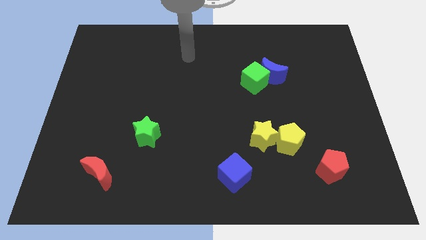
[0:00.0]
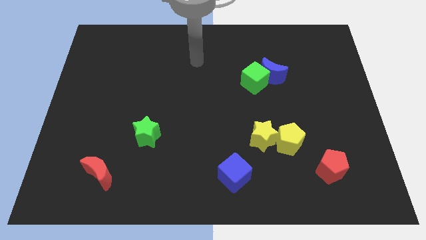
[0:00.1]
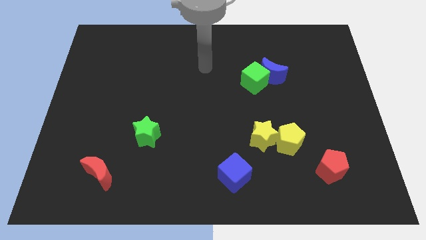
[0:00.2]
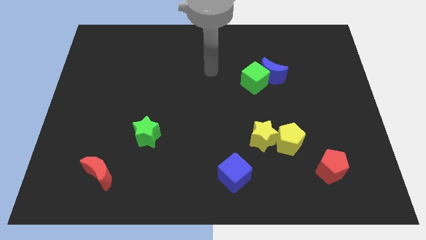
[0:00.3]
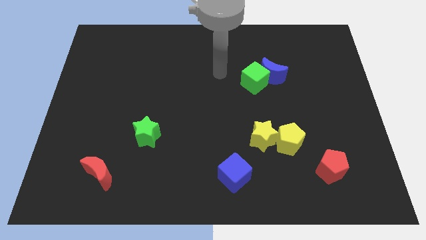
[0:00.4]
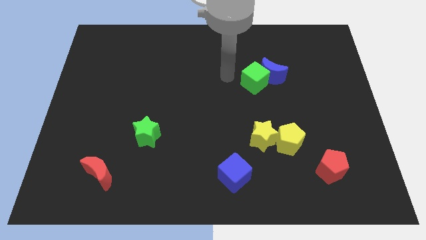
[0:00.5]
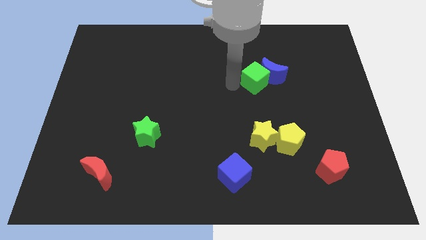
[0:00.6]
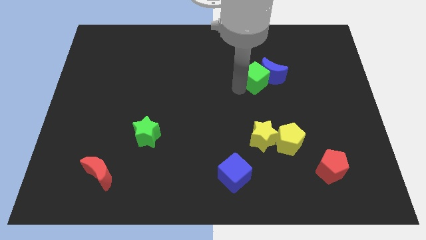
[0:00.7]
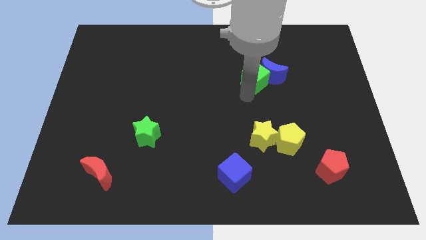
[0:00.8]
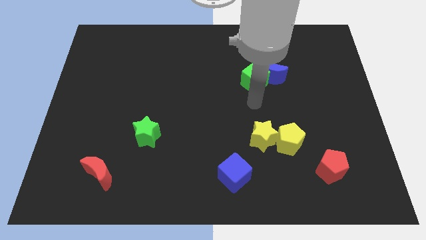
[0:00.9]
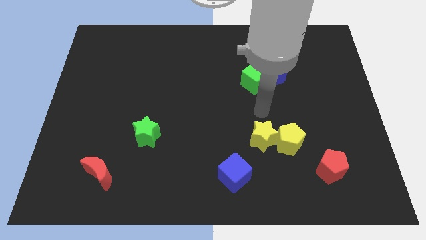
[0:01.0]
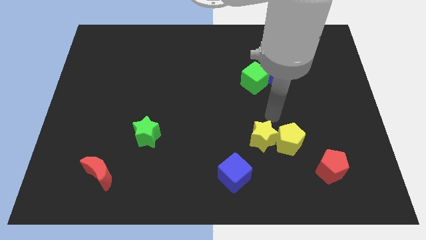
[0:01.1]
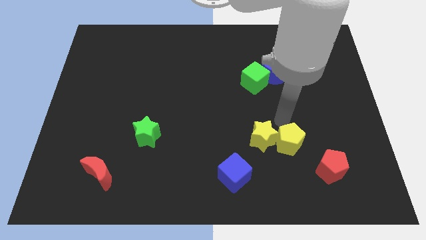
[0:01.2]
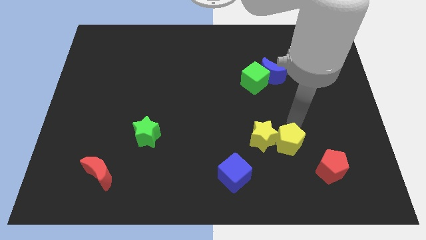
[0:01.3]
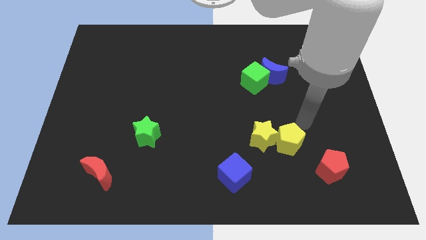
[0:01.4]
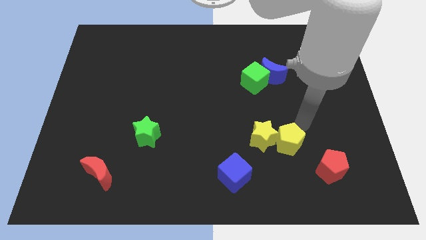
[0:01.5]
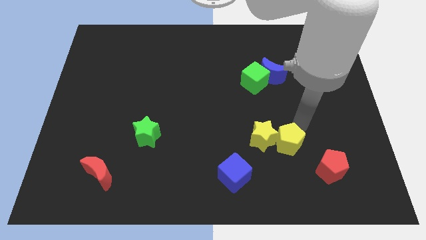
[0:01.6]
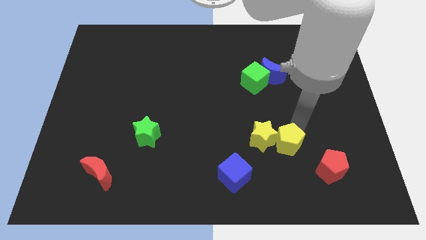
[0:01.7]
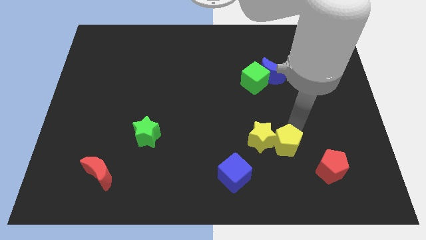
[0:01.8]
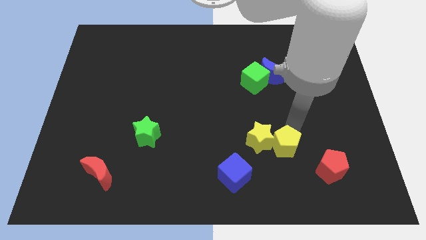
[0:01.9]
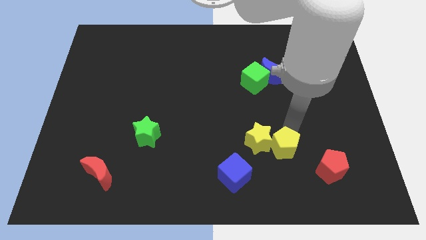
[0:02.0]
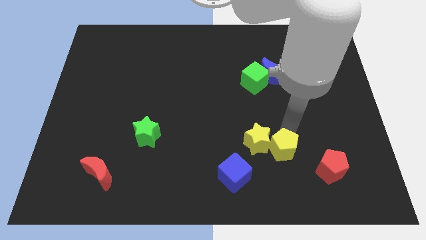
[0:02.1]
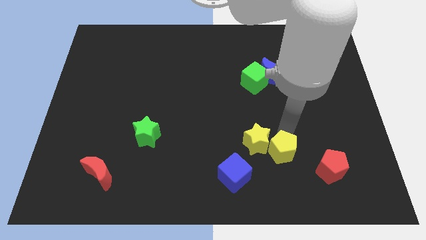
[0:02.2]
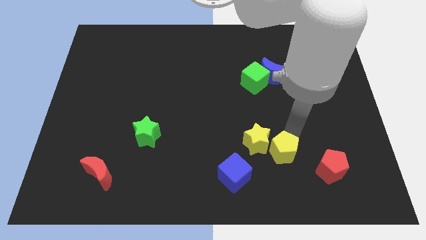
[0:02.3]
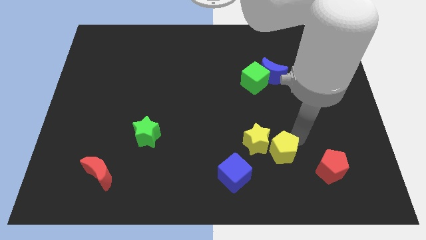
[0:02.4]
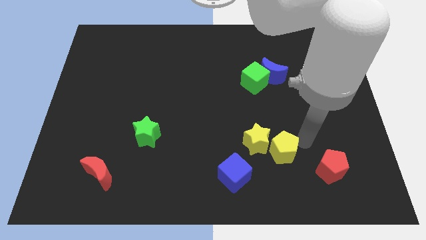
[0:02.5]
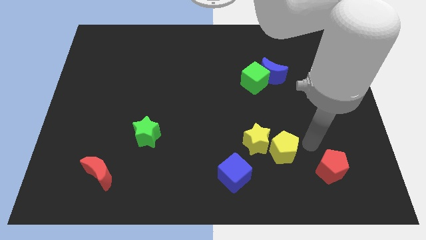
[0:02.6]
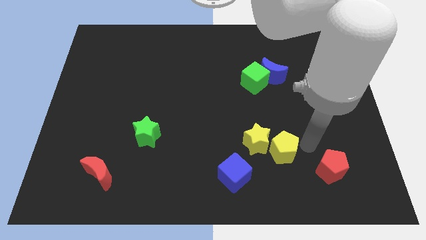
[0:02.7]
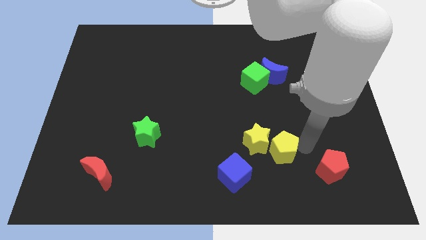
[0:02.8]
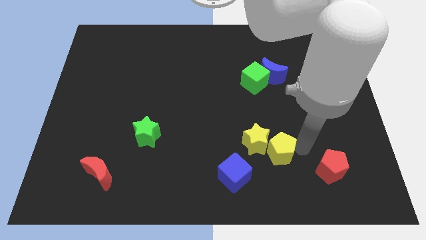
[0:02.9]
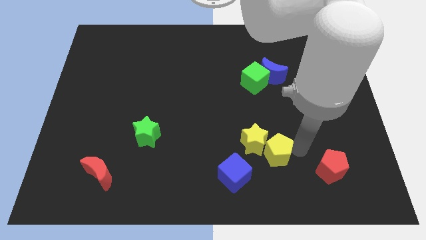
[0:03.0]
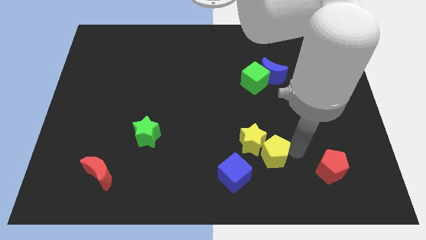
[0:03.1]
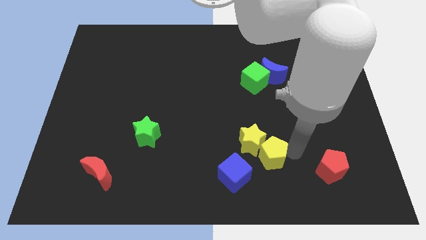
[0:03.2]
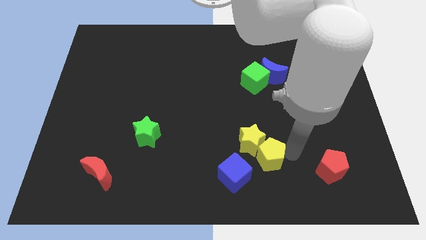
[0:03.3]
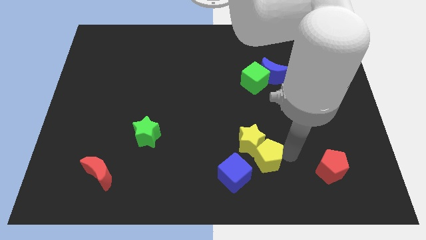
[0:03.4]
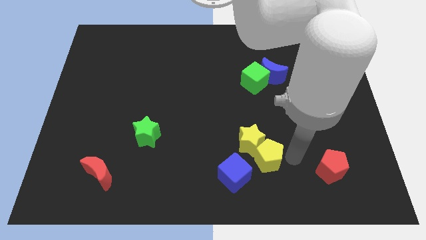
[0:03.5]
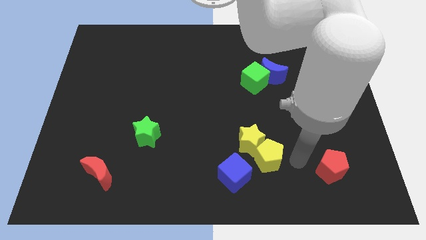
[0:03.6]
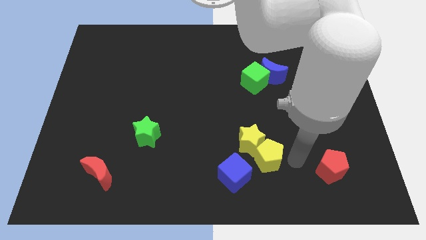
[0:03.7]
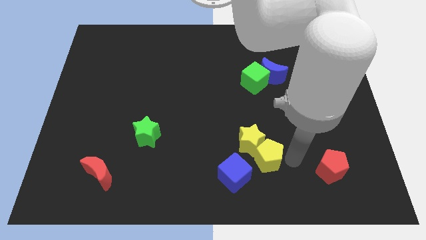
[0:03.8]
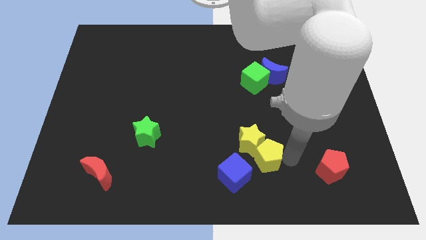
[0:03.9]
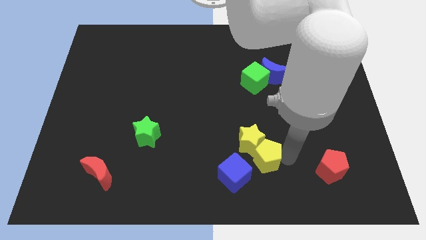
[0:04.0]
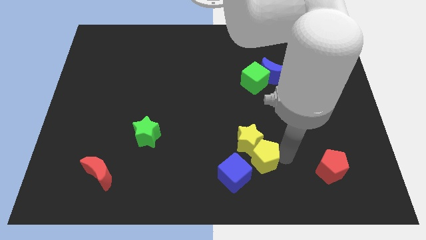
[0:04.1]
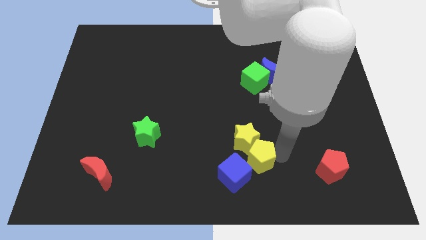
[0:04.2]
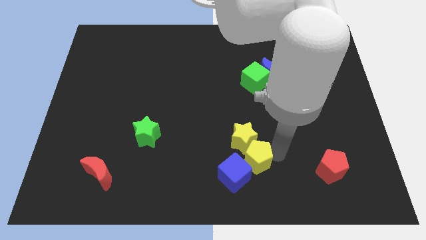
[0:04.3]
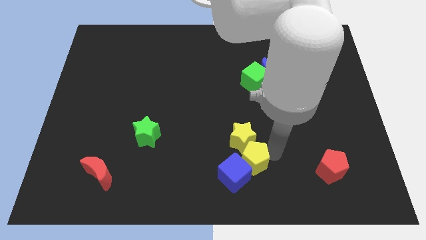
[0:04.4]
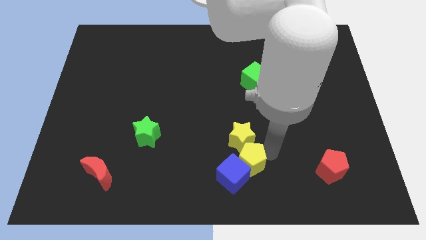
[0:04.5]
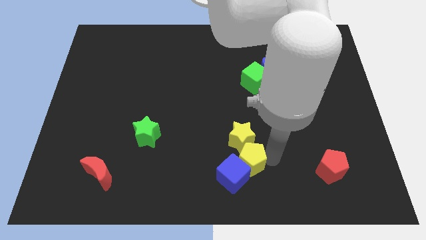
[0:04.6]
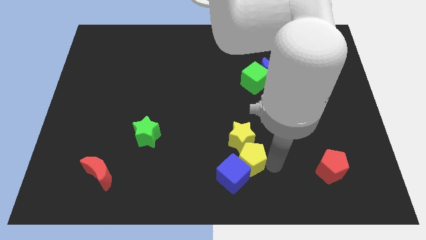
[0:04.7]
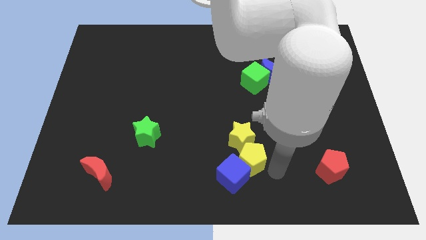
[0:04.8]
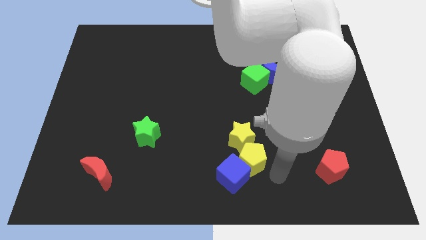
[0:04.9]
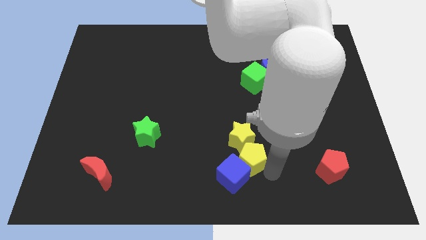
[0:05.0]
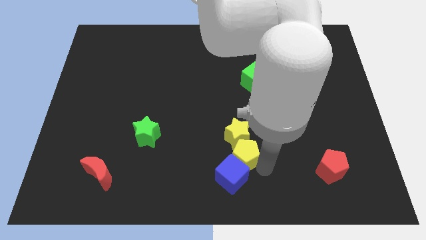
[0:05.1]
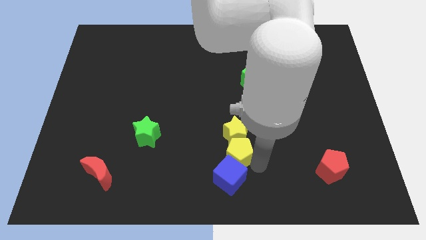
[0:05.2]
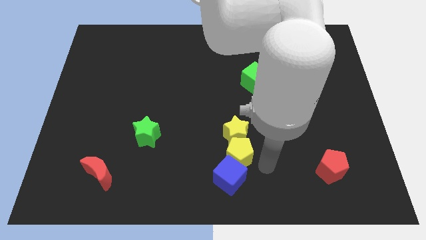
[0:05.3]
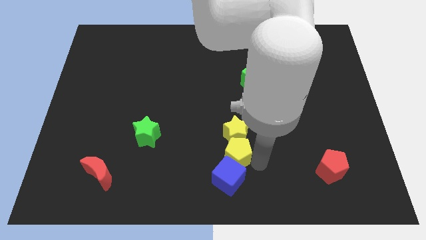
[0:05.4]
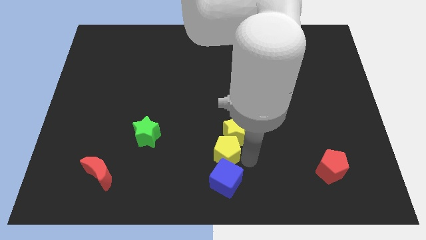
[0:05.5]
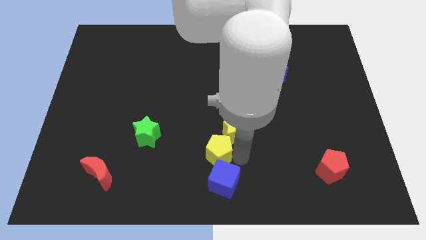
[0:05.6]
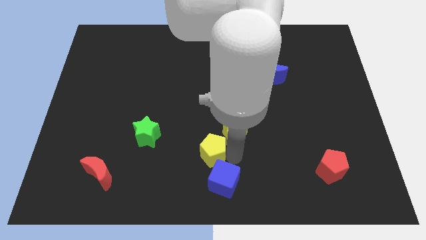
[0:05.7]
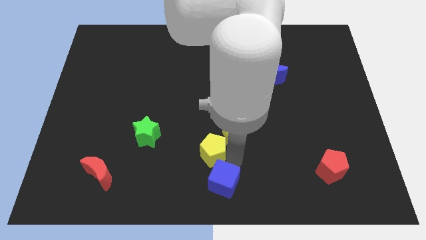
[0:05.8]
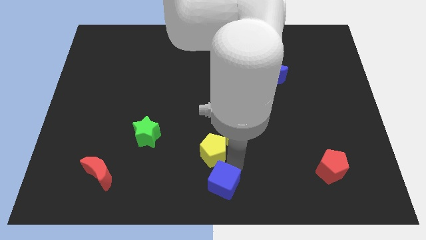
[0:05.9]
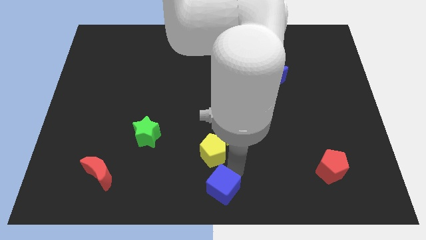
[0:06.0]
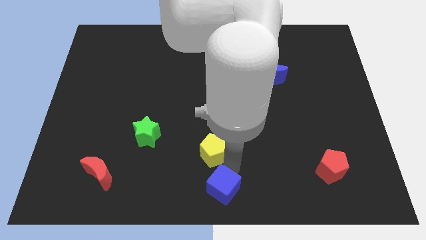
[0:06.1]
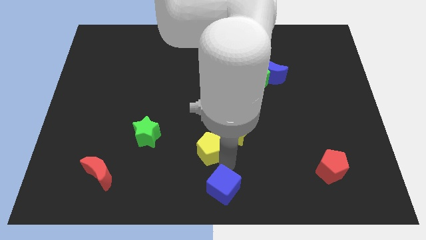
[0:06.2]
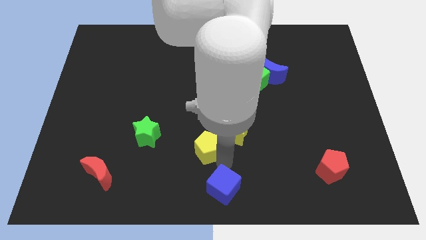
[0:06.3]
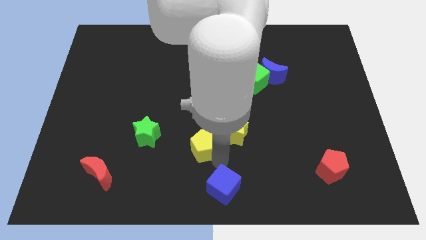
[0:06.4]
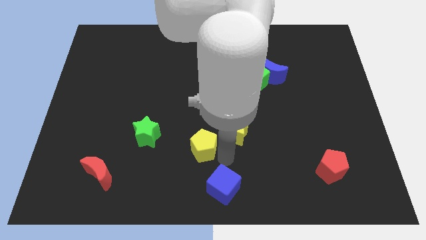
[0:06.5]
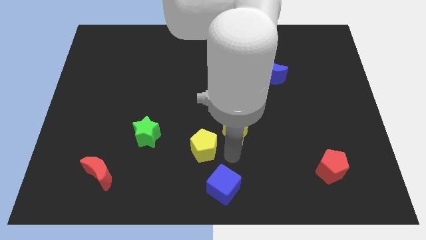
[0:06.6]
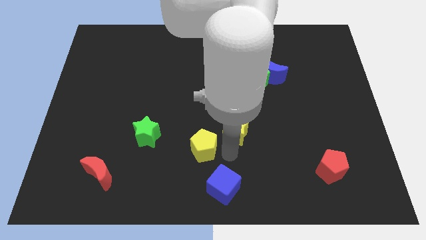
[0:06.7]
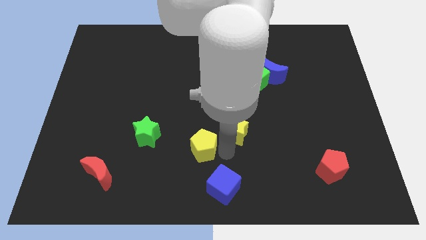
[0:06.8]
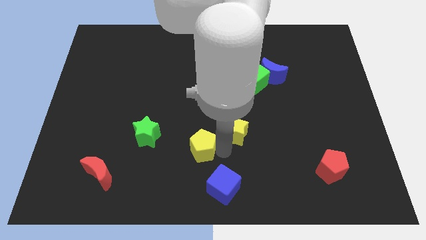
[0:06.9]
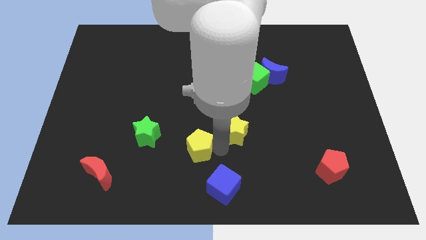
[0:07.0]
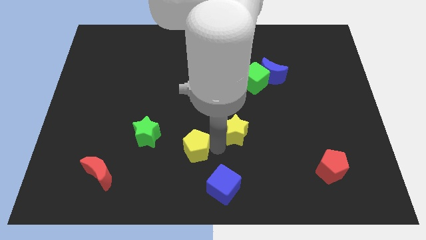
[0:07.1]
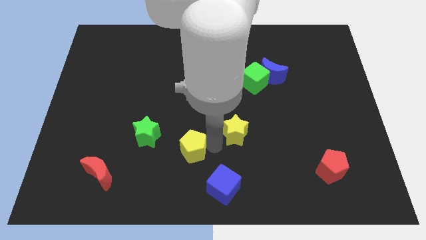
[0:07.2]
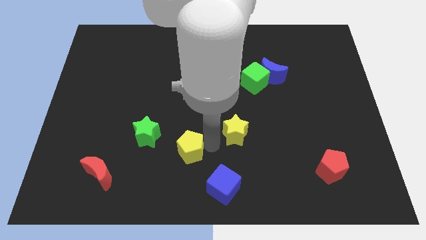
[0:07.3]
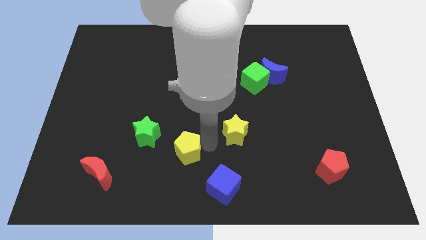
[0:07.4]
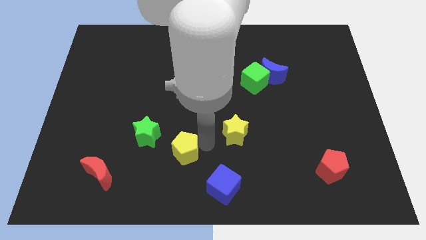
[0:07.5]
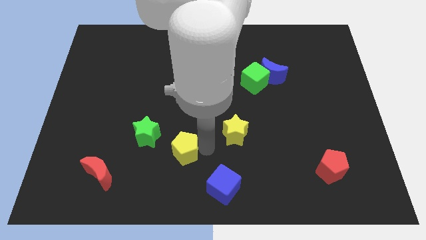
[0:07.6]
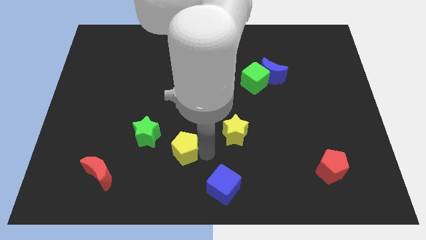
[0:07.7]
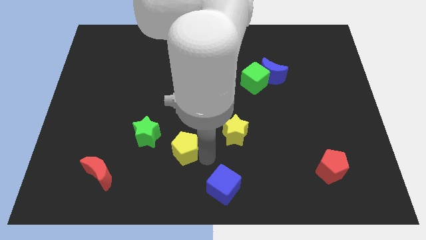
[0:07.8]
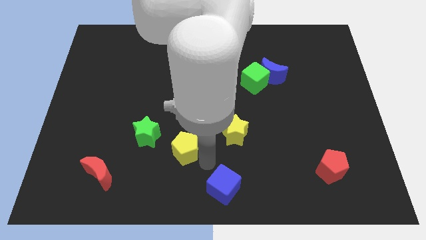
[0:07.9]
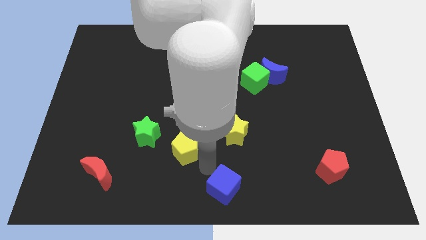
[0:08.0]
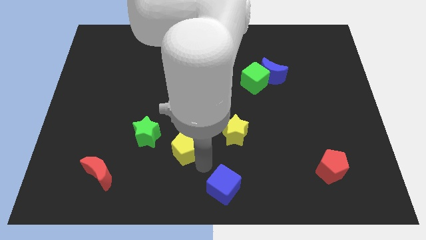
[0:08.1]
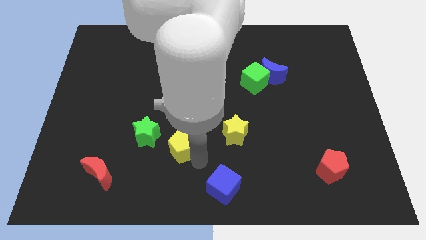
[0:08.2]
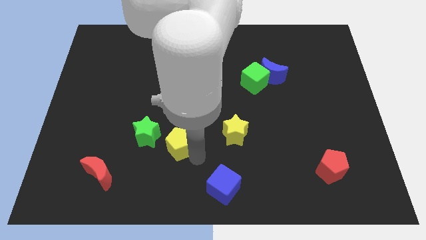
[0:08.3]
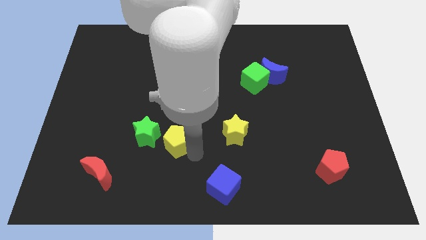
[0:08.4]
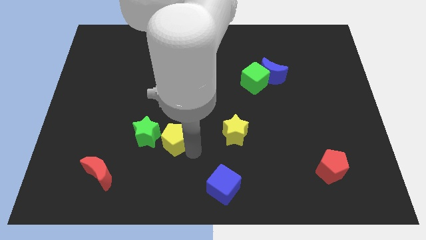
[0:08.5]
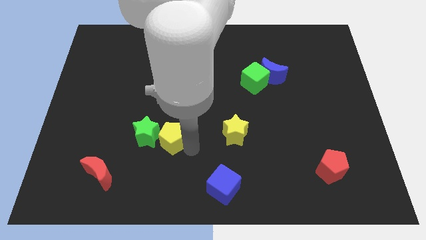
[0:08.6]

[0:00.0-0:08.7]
slide the yellow pentagon towards the green star
